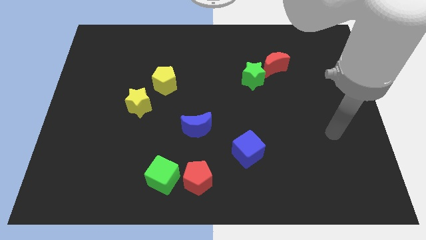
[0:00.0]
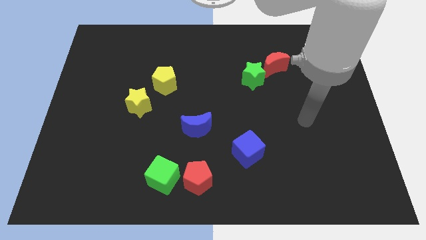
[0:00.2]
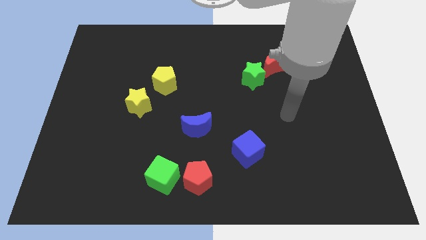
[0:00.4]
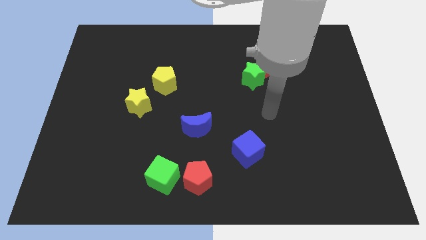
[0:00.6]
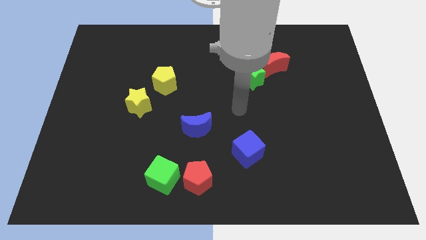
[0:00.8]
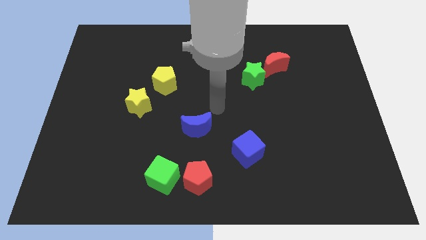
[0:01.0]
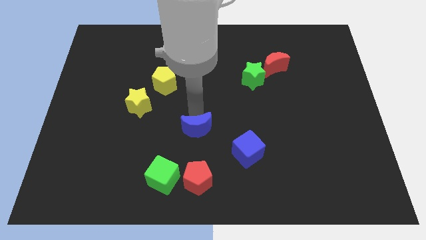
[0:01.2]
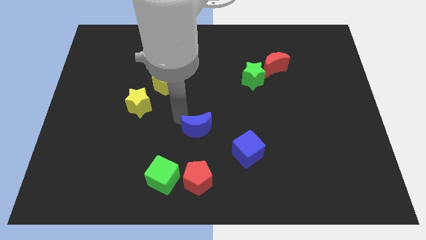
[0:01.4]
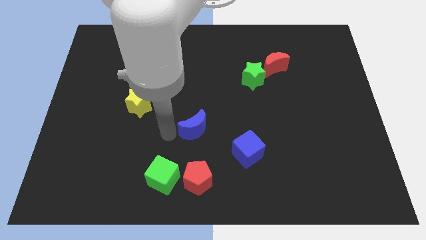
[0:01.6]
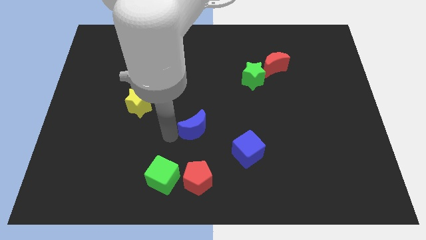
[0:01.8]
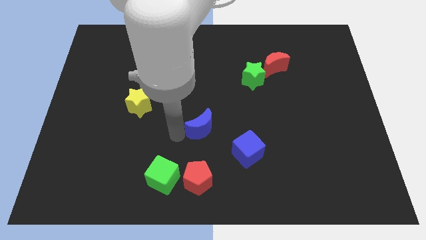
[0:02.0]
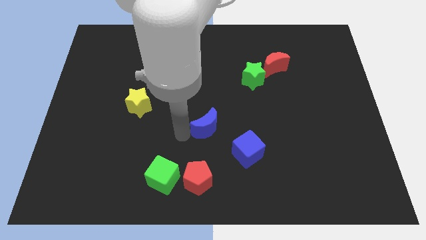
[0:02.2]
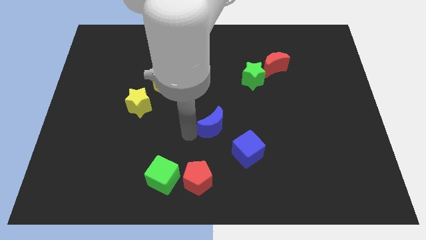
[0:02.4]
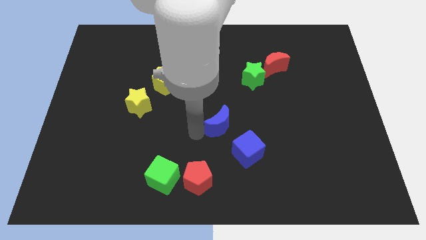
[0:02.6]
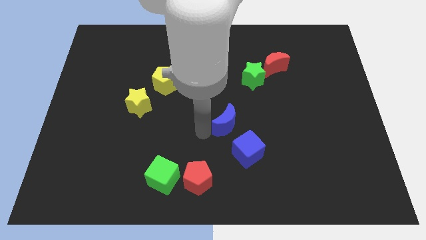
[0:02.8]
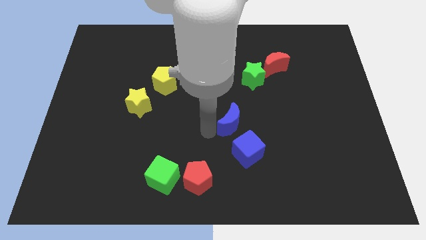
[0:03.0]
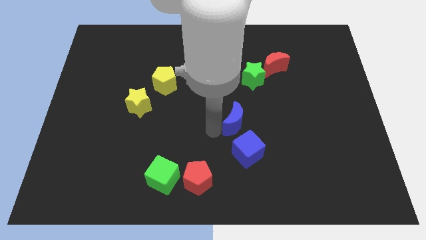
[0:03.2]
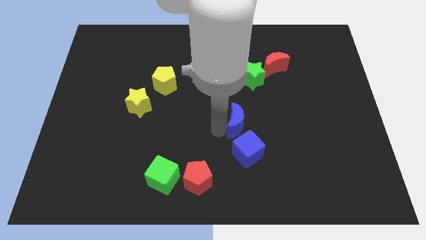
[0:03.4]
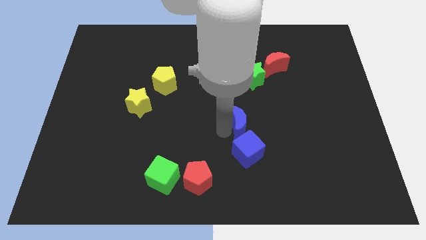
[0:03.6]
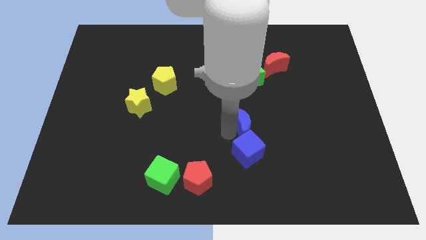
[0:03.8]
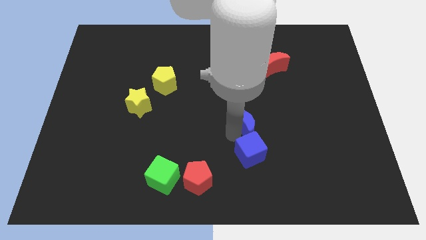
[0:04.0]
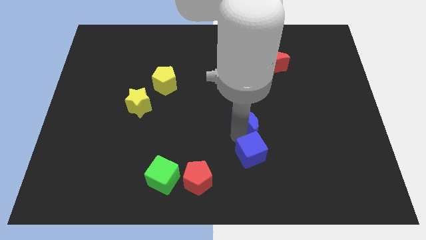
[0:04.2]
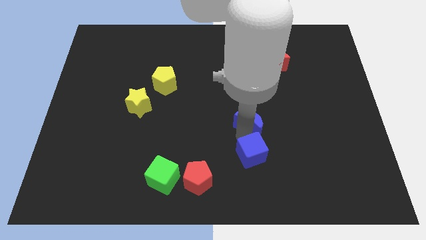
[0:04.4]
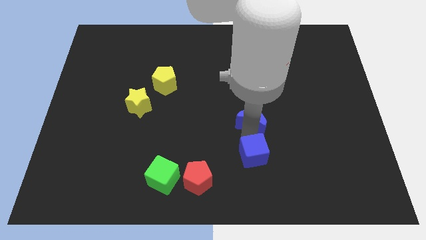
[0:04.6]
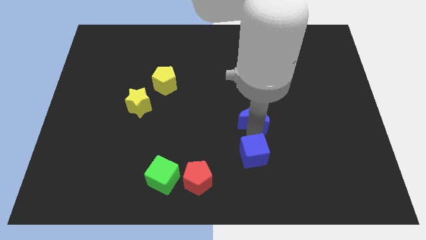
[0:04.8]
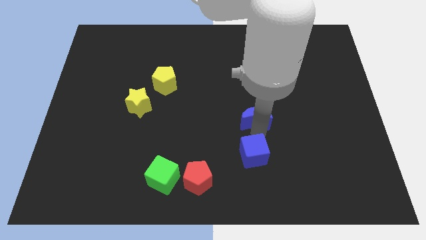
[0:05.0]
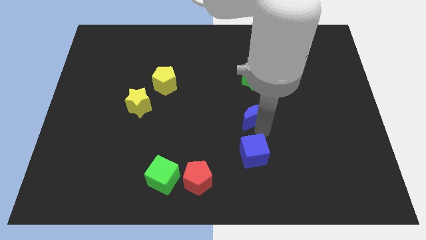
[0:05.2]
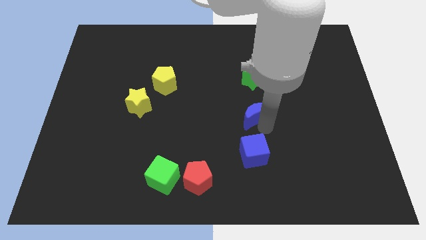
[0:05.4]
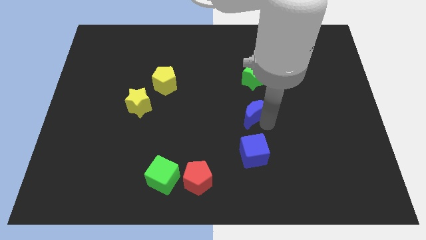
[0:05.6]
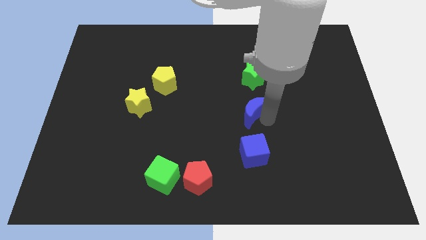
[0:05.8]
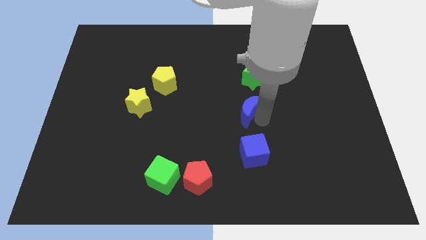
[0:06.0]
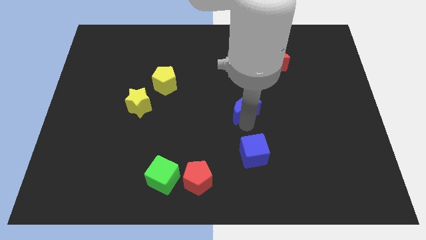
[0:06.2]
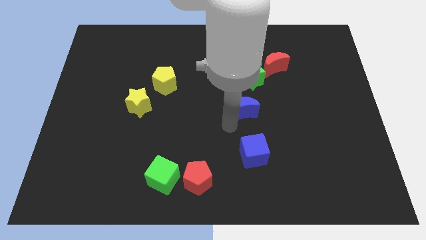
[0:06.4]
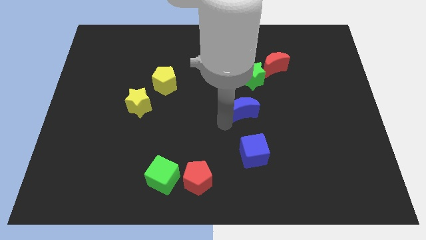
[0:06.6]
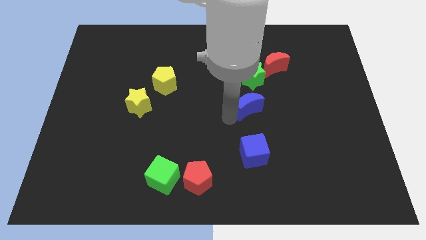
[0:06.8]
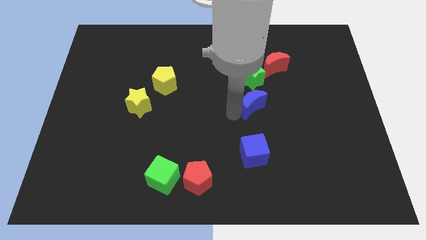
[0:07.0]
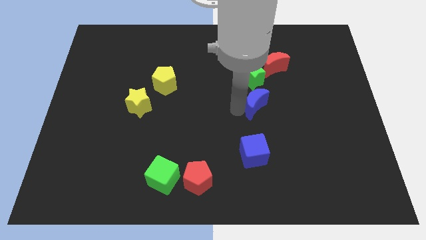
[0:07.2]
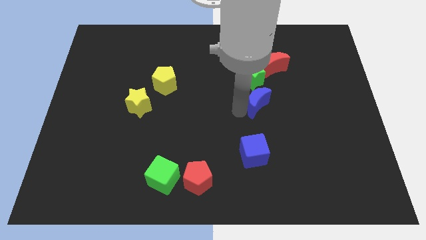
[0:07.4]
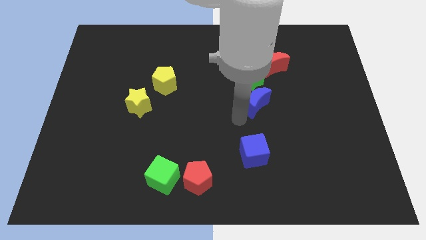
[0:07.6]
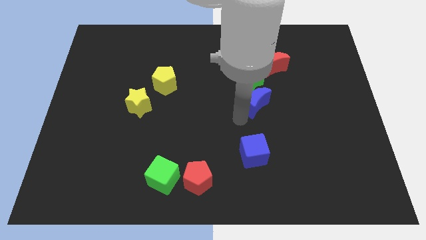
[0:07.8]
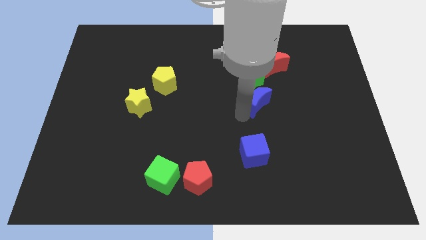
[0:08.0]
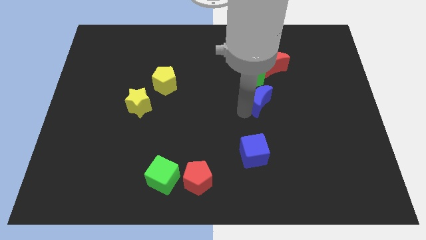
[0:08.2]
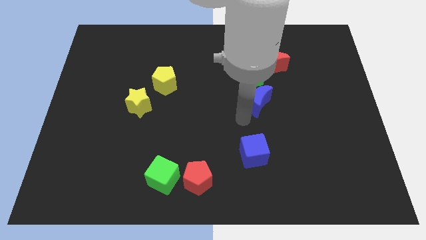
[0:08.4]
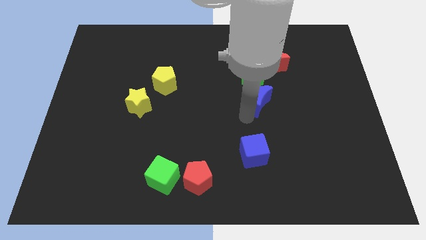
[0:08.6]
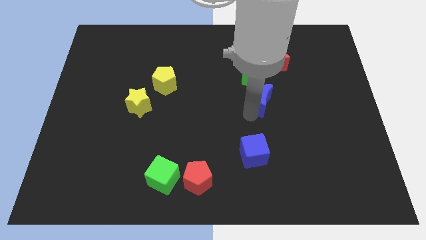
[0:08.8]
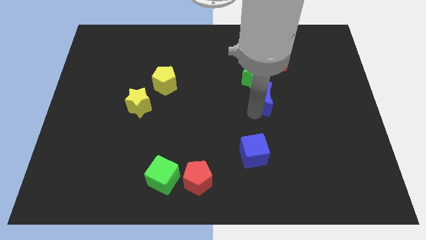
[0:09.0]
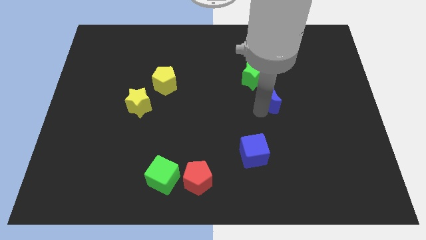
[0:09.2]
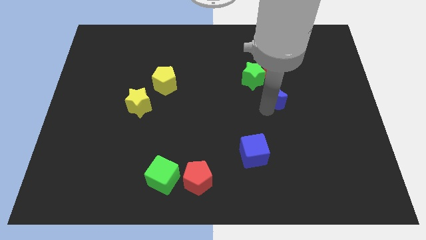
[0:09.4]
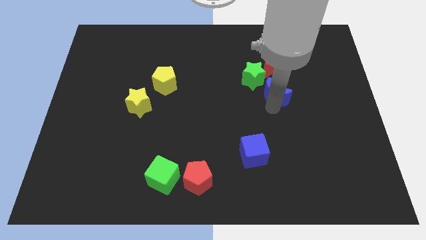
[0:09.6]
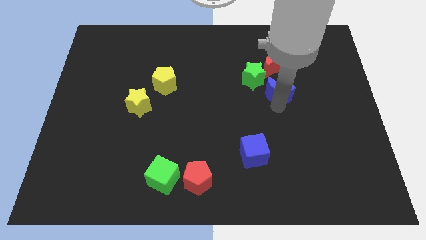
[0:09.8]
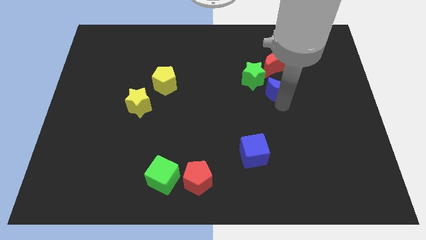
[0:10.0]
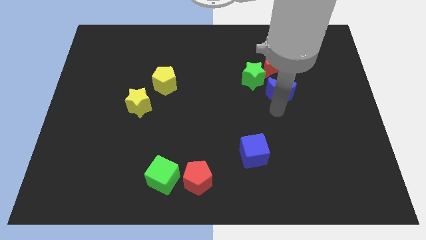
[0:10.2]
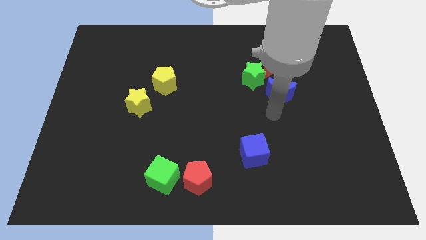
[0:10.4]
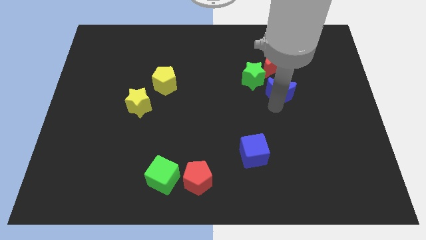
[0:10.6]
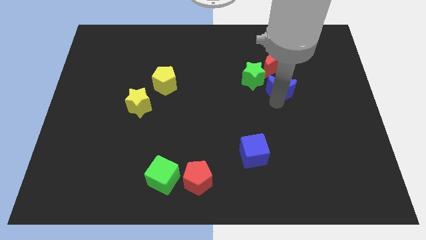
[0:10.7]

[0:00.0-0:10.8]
slide the blue moon up and right

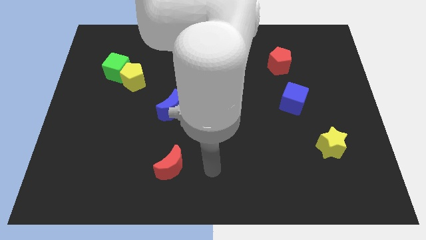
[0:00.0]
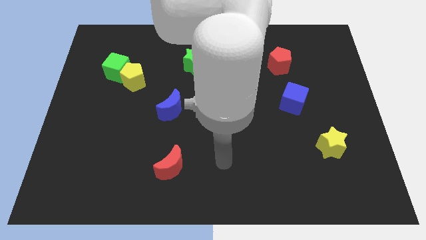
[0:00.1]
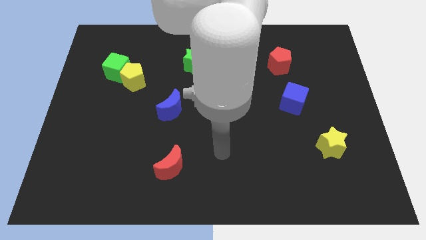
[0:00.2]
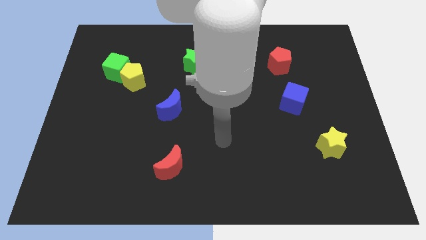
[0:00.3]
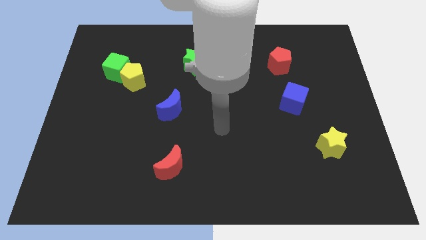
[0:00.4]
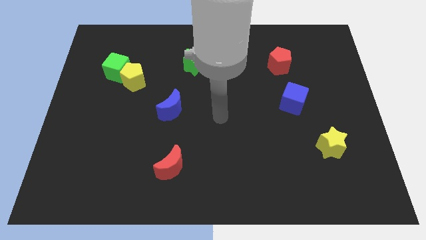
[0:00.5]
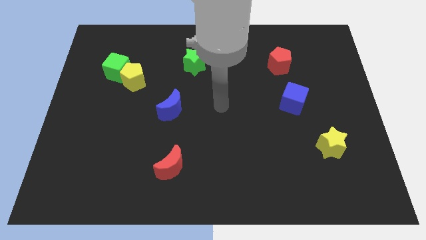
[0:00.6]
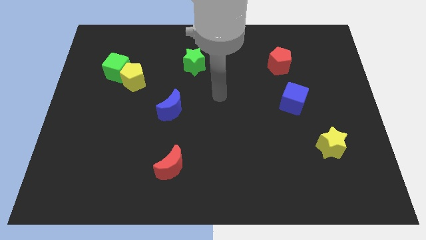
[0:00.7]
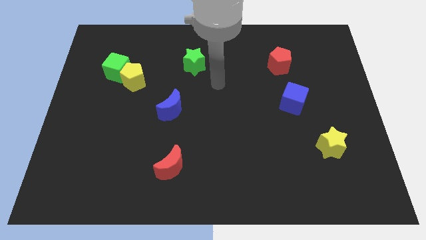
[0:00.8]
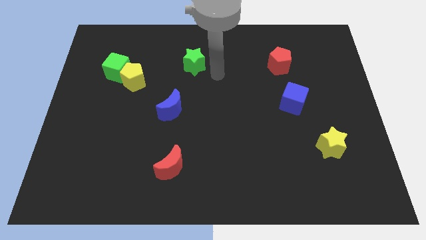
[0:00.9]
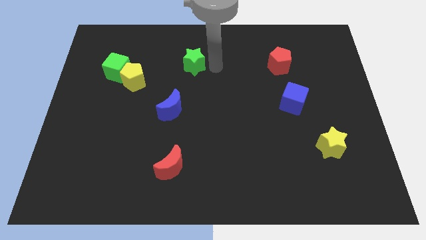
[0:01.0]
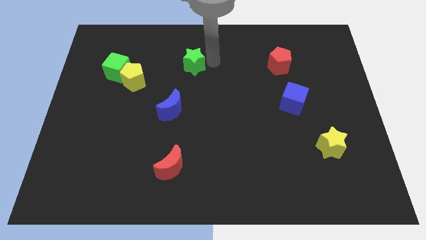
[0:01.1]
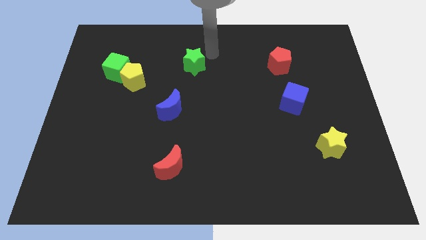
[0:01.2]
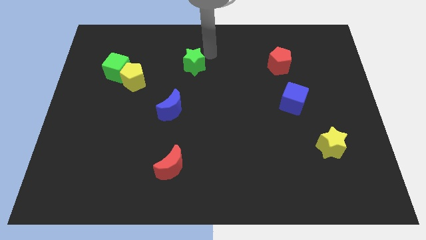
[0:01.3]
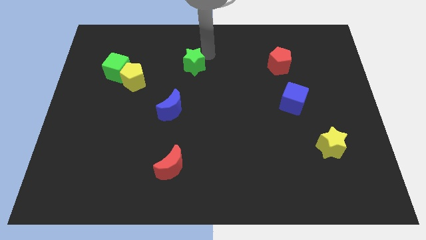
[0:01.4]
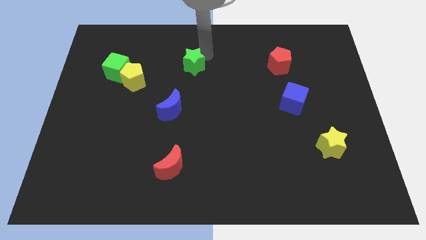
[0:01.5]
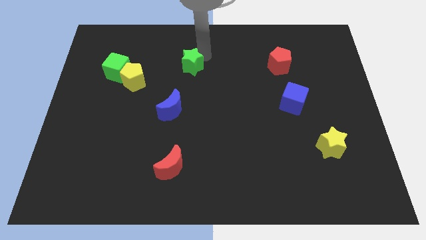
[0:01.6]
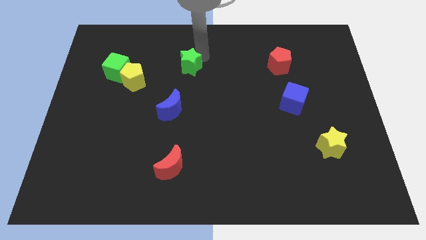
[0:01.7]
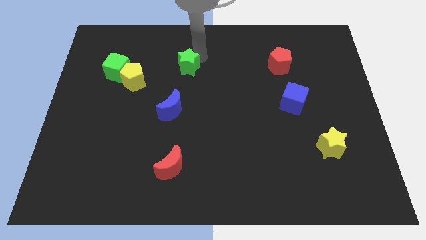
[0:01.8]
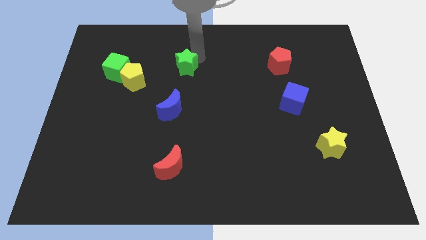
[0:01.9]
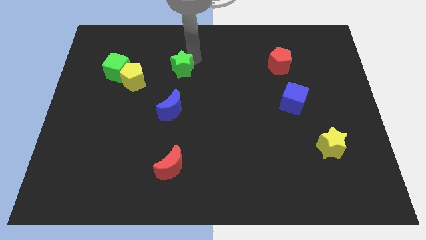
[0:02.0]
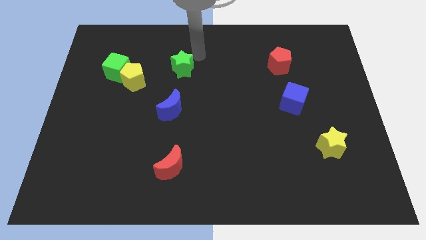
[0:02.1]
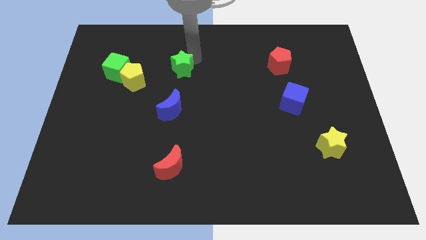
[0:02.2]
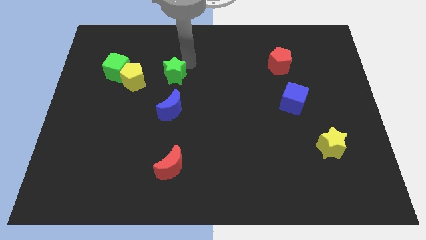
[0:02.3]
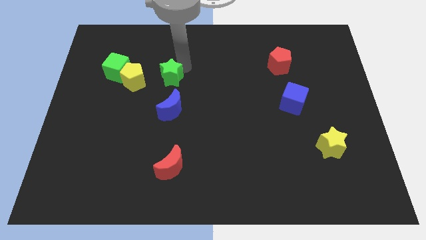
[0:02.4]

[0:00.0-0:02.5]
slightly move the green star downwards and then left
